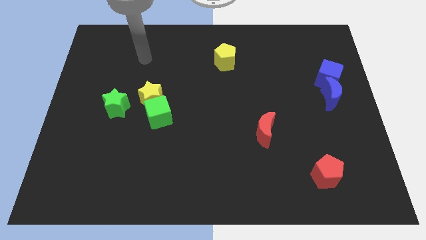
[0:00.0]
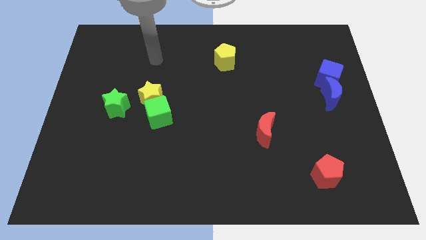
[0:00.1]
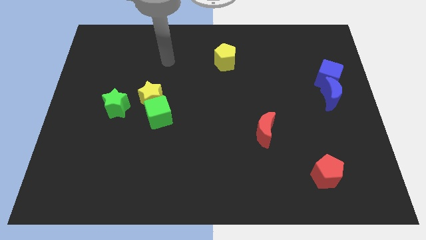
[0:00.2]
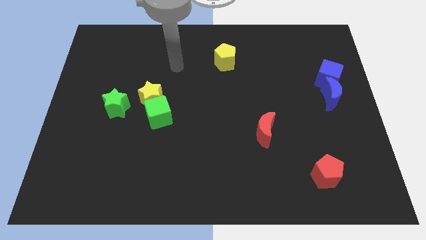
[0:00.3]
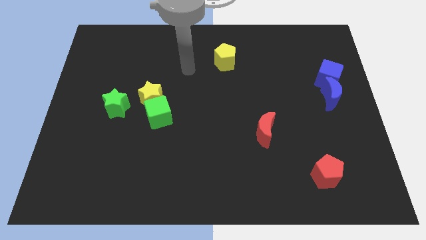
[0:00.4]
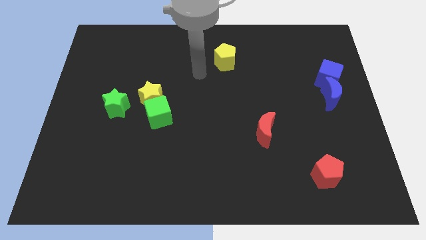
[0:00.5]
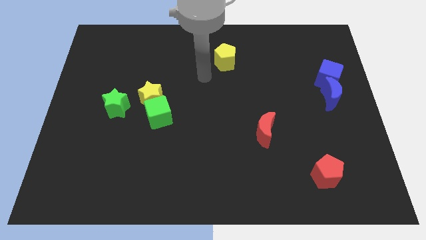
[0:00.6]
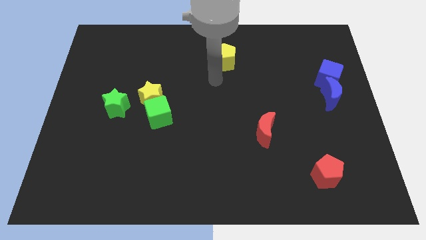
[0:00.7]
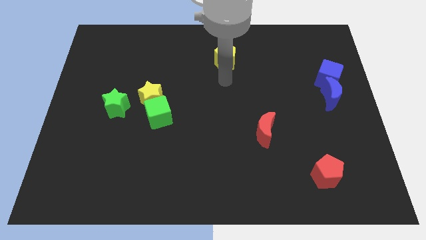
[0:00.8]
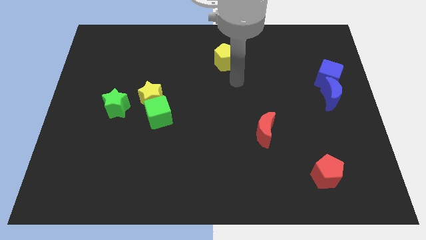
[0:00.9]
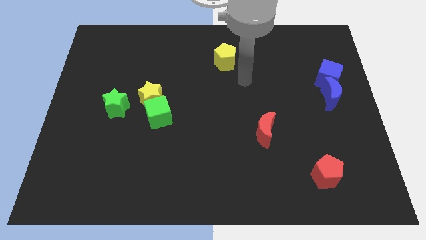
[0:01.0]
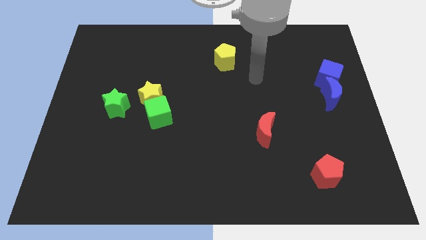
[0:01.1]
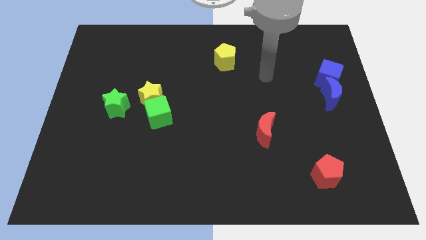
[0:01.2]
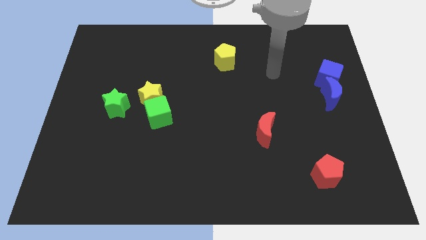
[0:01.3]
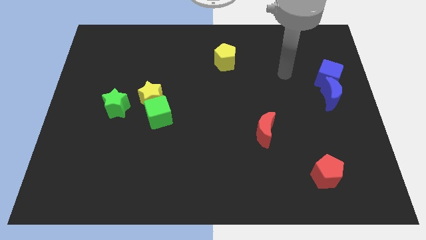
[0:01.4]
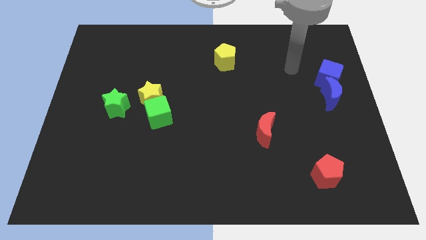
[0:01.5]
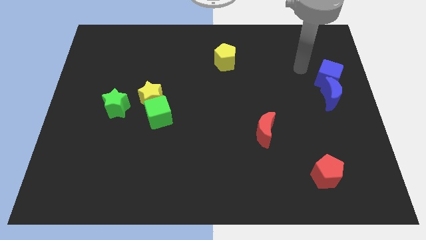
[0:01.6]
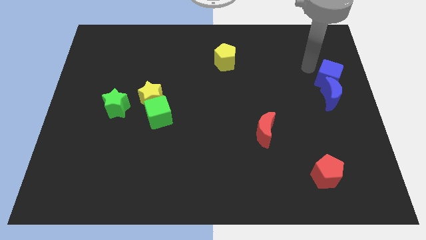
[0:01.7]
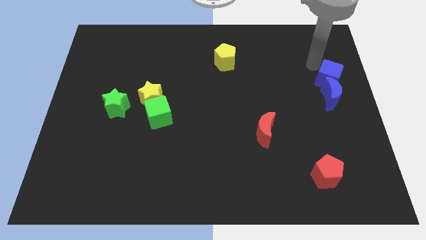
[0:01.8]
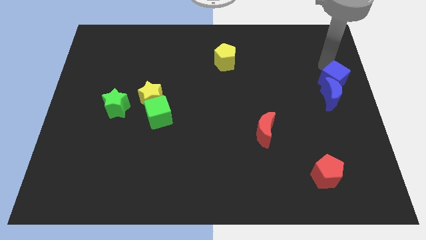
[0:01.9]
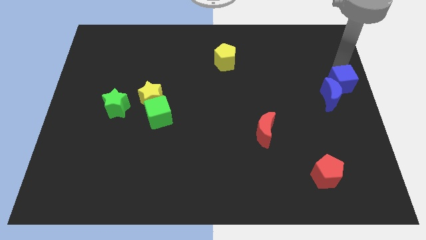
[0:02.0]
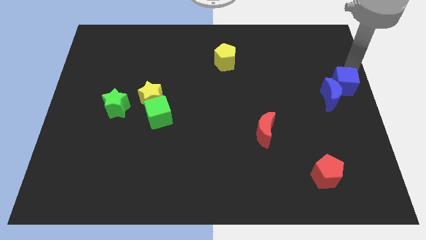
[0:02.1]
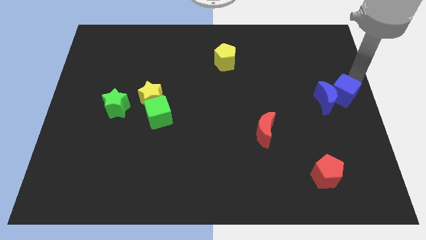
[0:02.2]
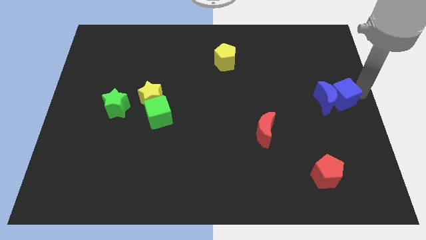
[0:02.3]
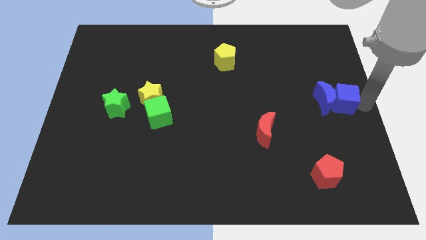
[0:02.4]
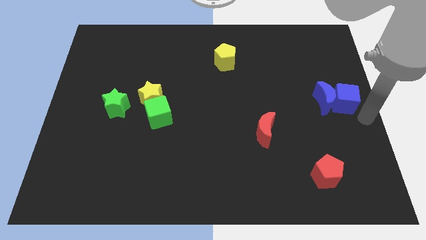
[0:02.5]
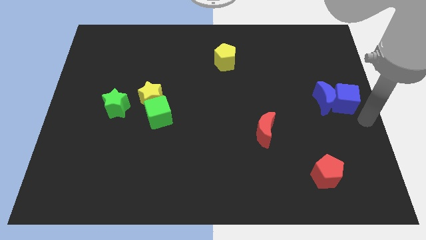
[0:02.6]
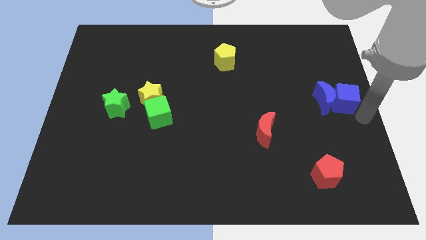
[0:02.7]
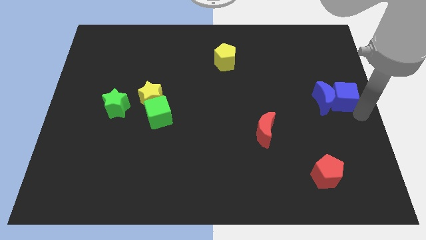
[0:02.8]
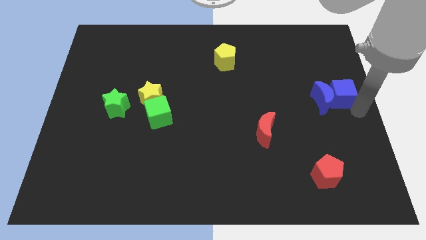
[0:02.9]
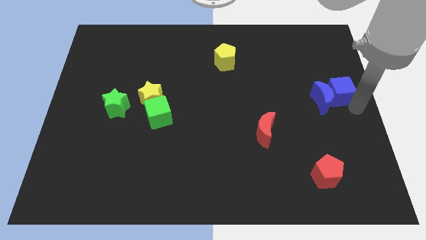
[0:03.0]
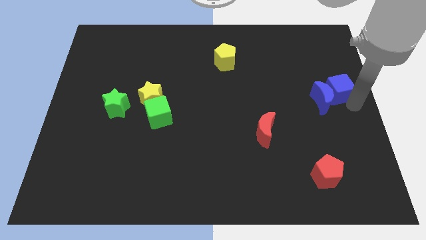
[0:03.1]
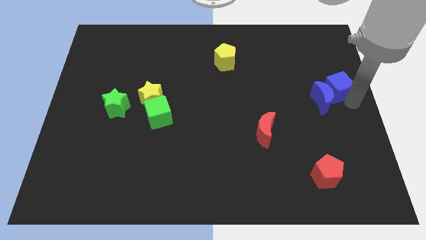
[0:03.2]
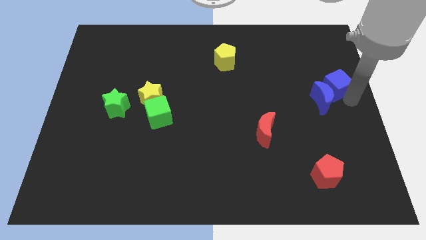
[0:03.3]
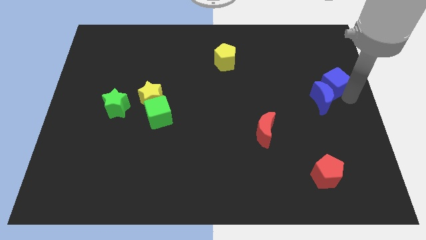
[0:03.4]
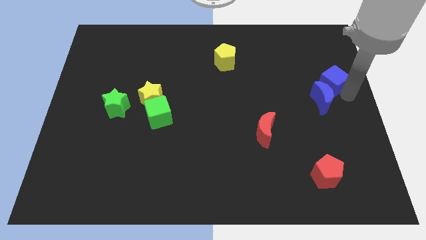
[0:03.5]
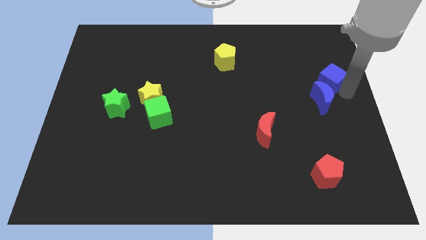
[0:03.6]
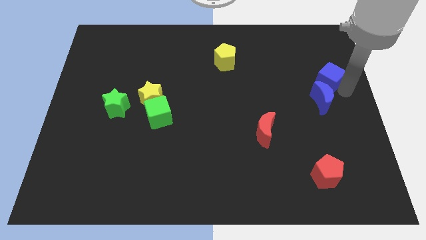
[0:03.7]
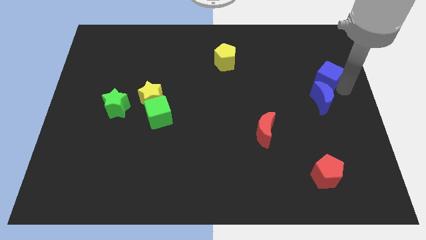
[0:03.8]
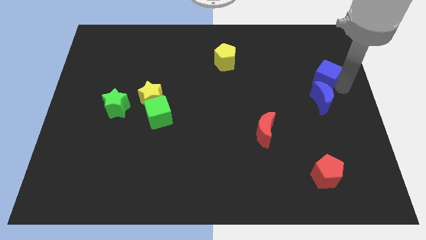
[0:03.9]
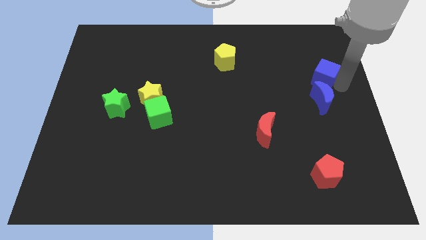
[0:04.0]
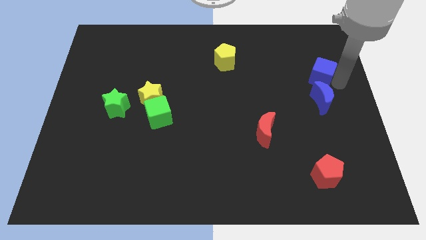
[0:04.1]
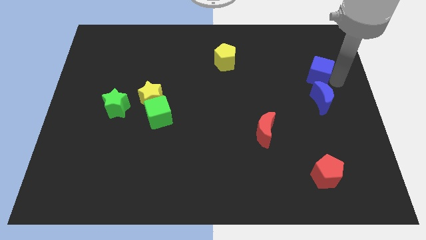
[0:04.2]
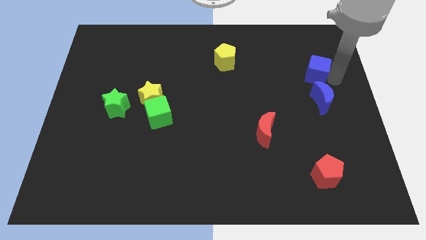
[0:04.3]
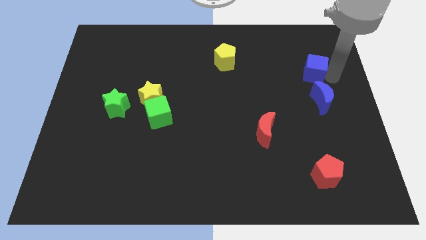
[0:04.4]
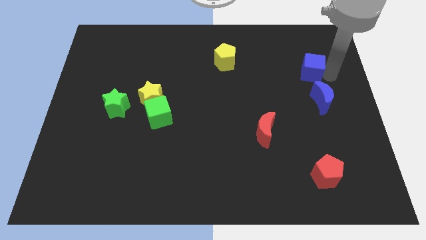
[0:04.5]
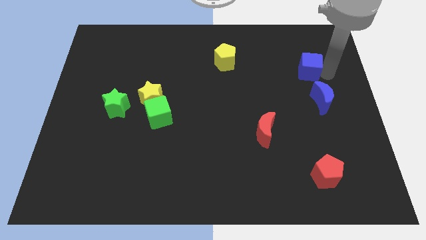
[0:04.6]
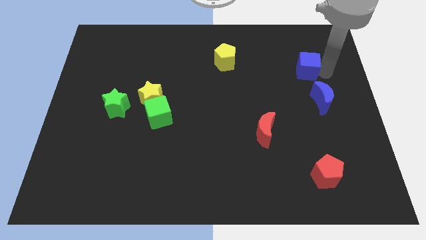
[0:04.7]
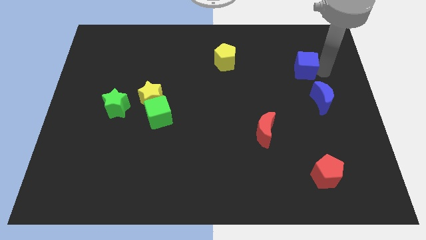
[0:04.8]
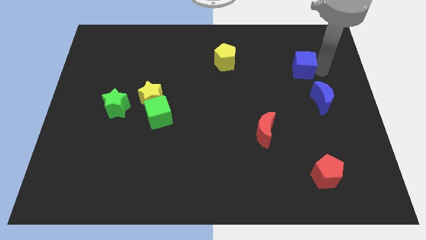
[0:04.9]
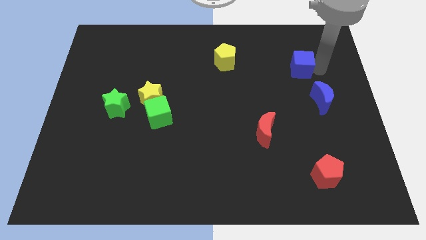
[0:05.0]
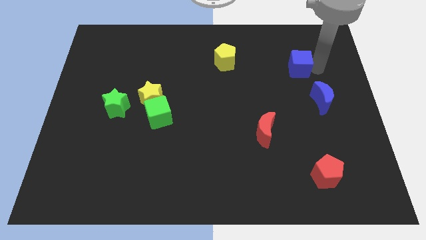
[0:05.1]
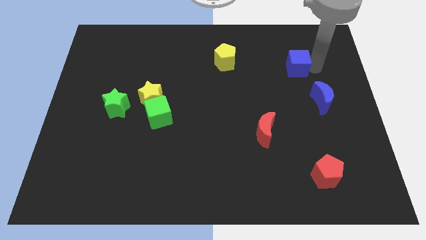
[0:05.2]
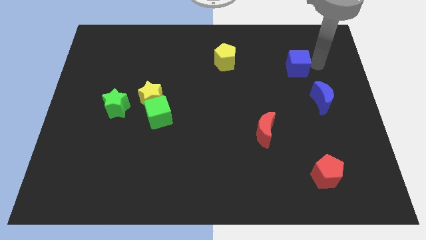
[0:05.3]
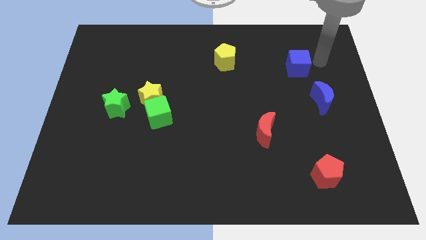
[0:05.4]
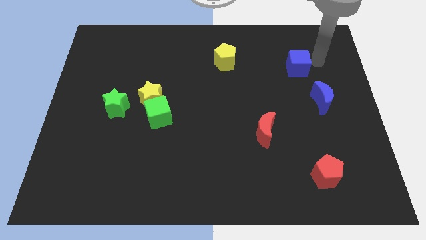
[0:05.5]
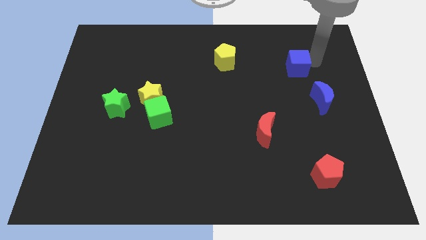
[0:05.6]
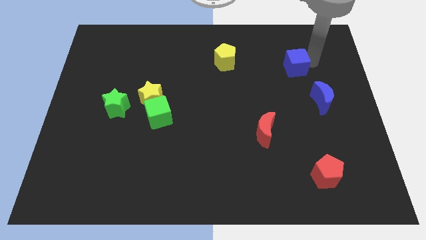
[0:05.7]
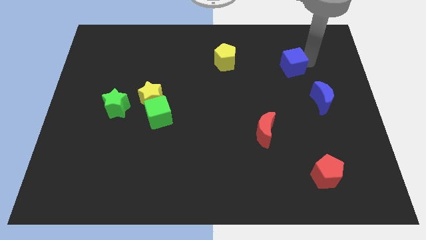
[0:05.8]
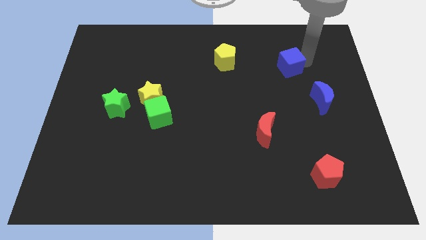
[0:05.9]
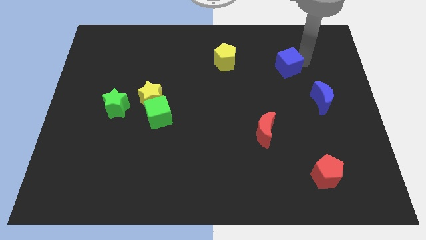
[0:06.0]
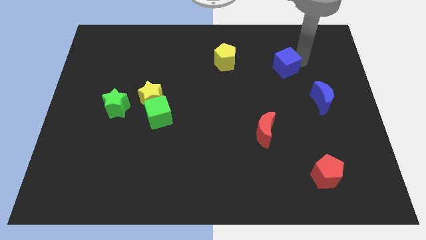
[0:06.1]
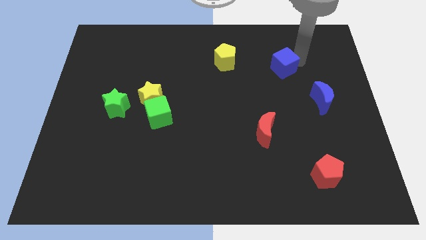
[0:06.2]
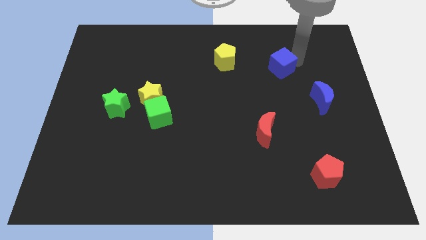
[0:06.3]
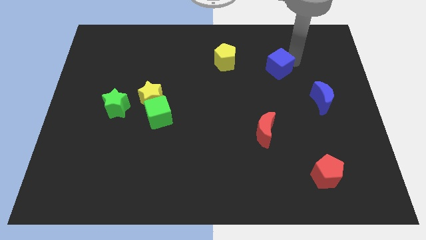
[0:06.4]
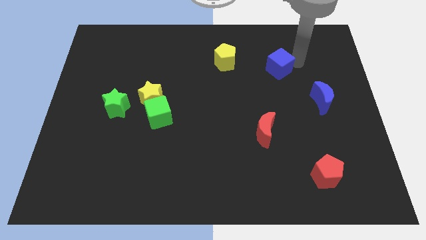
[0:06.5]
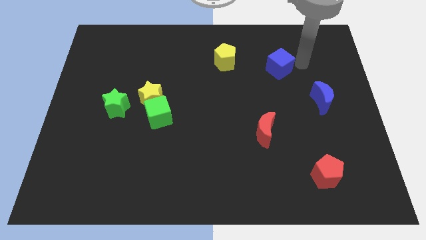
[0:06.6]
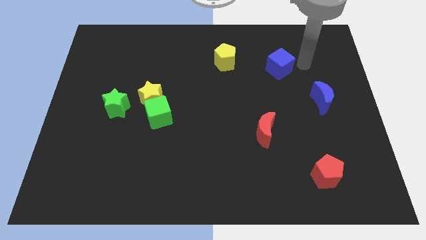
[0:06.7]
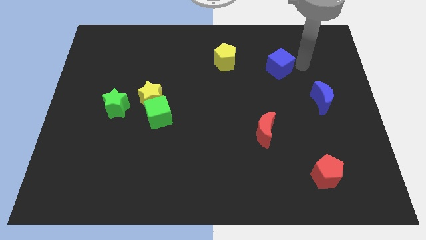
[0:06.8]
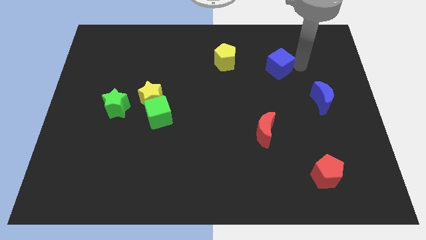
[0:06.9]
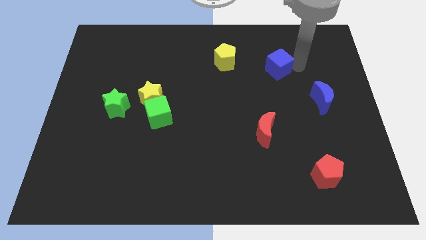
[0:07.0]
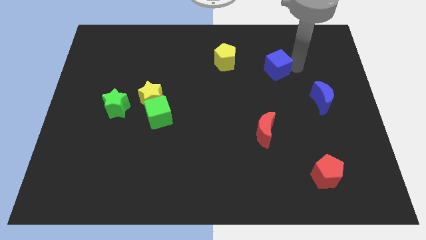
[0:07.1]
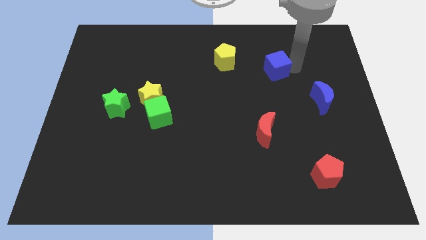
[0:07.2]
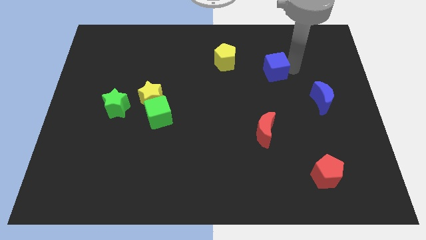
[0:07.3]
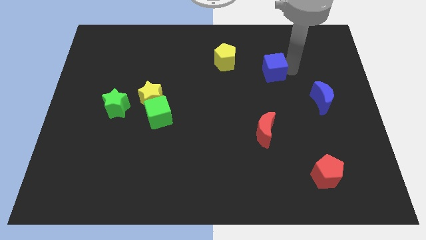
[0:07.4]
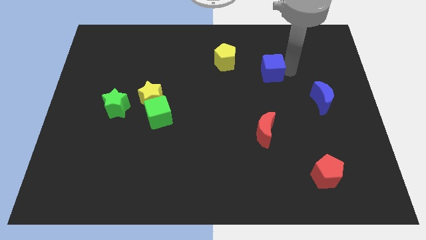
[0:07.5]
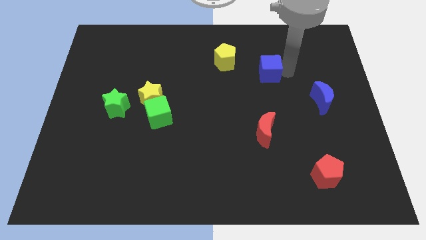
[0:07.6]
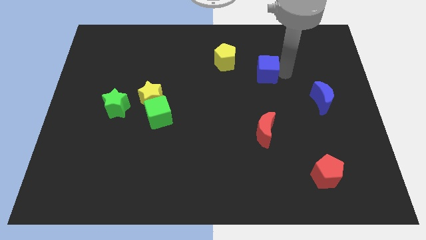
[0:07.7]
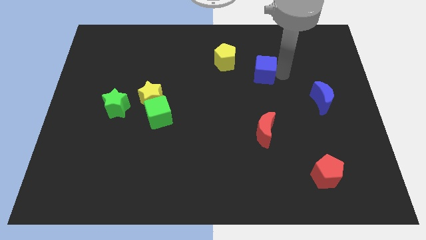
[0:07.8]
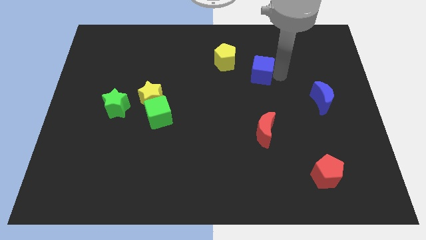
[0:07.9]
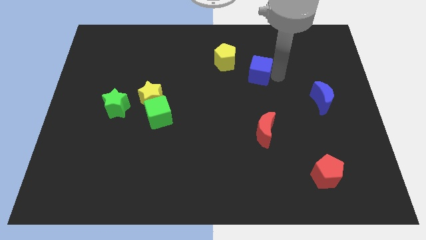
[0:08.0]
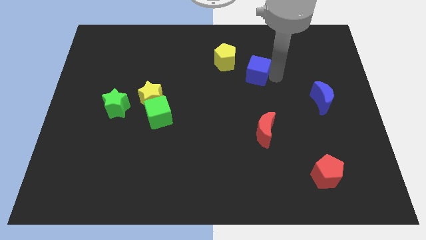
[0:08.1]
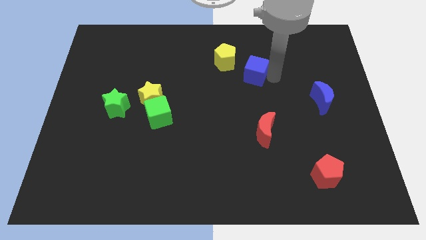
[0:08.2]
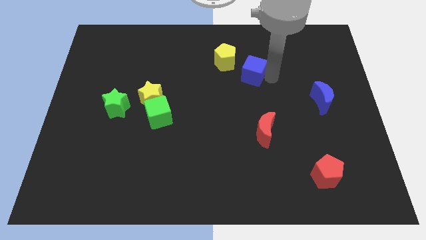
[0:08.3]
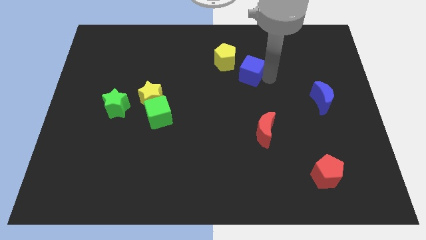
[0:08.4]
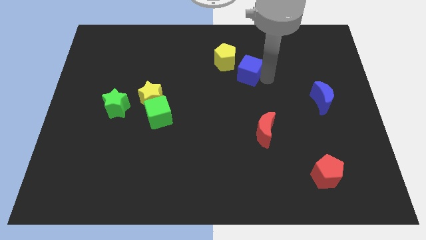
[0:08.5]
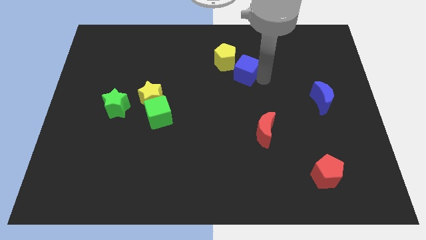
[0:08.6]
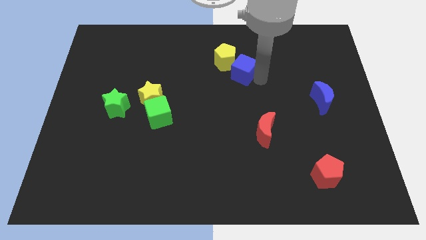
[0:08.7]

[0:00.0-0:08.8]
slide the blue cube towards the yellow pentagon
